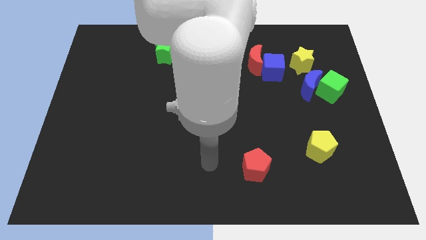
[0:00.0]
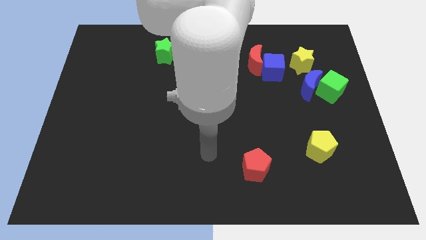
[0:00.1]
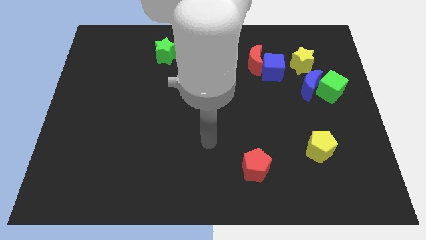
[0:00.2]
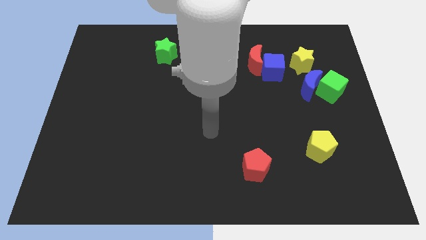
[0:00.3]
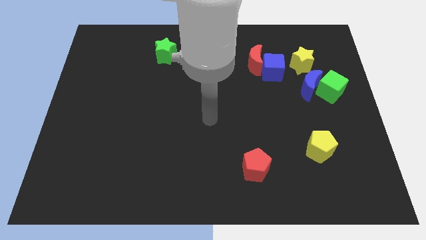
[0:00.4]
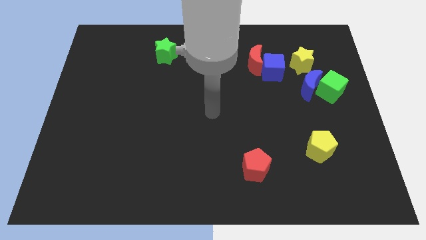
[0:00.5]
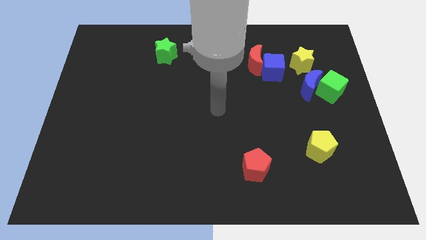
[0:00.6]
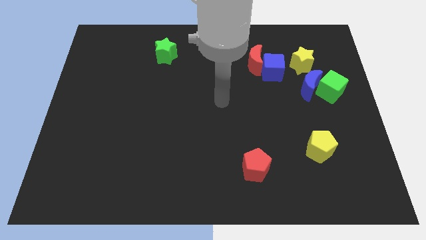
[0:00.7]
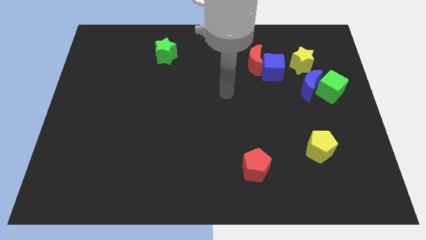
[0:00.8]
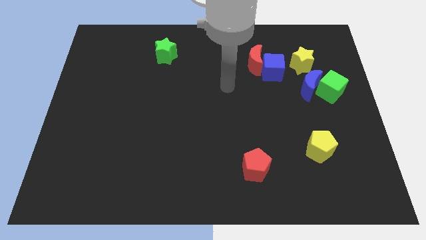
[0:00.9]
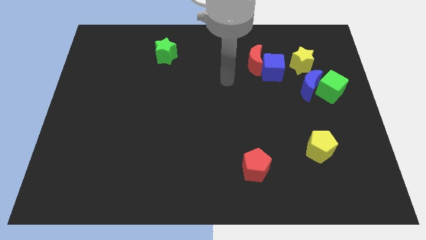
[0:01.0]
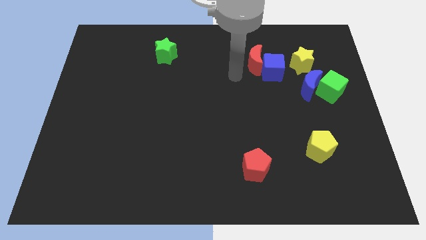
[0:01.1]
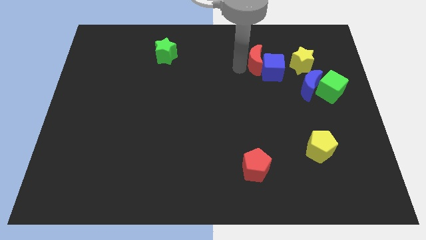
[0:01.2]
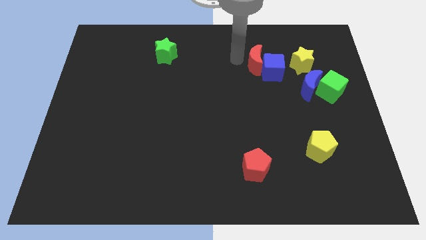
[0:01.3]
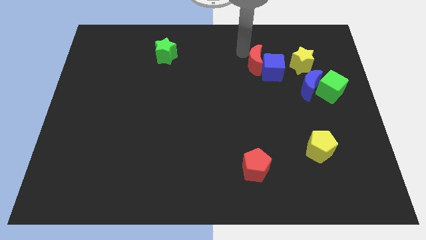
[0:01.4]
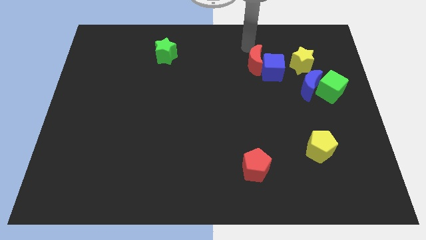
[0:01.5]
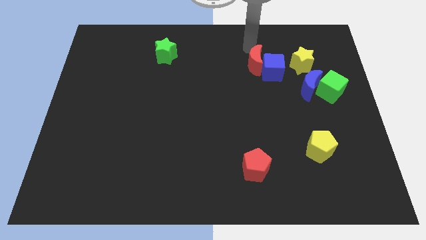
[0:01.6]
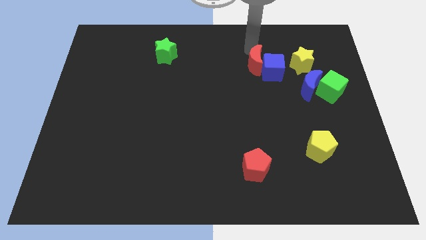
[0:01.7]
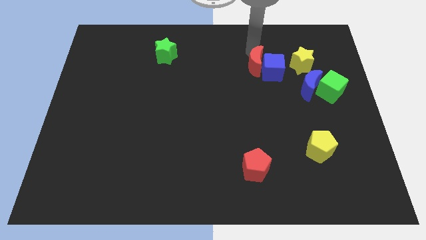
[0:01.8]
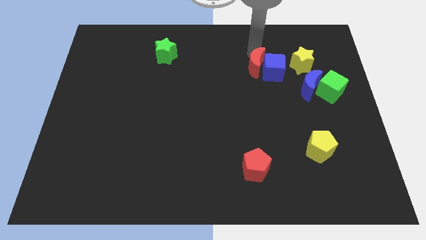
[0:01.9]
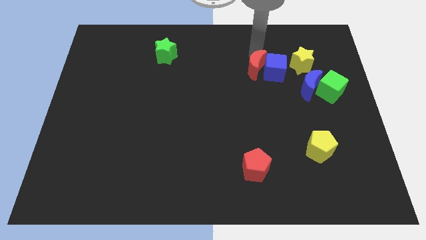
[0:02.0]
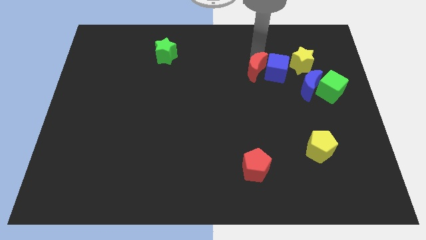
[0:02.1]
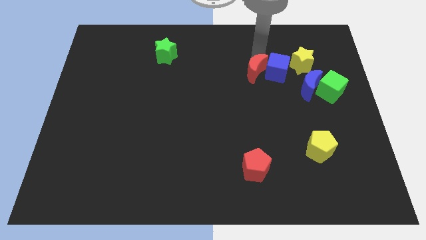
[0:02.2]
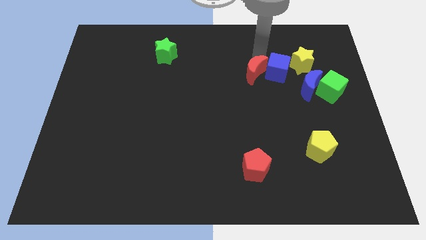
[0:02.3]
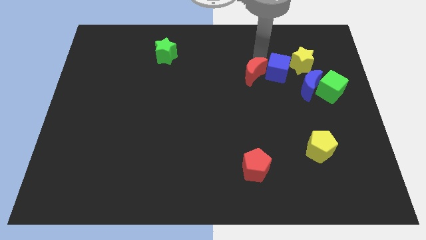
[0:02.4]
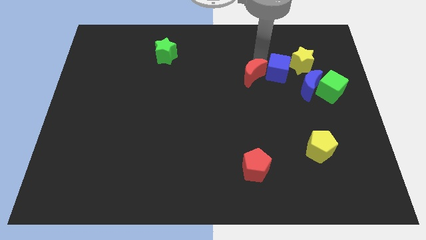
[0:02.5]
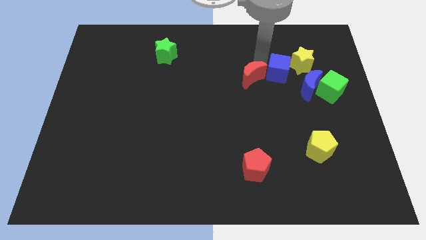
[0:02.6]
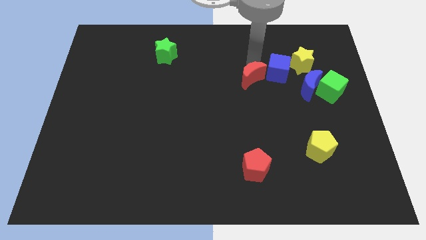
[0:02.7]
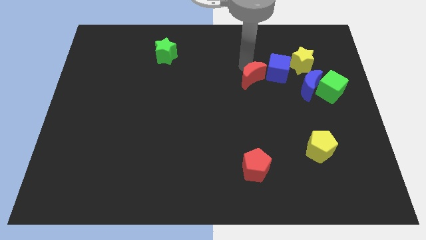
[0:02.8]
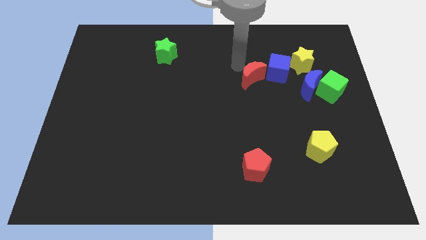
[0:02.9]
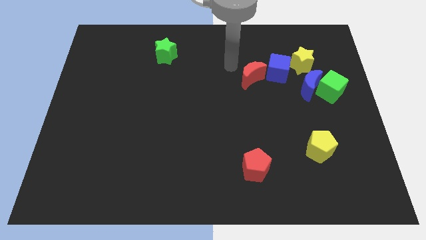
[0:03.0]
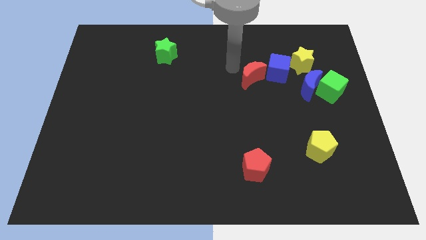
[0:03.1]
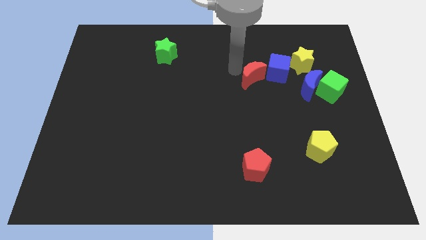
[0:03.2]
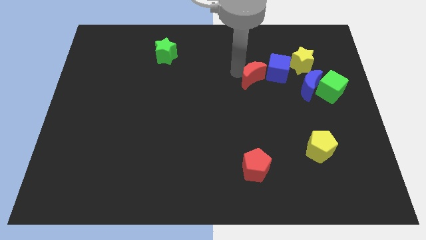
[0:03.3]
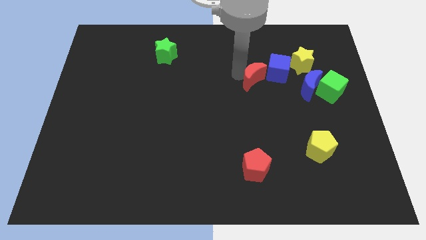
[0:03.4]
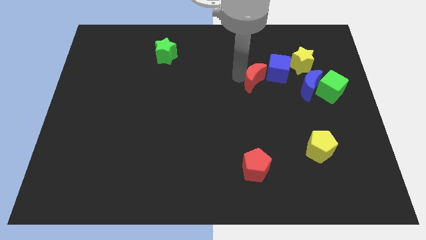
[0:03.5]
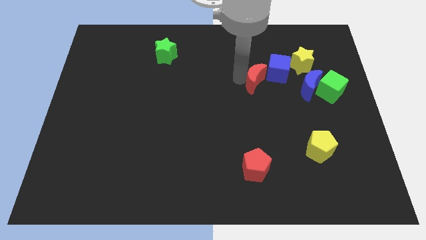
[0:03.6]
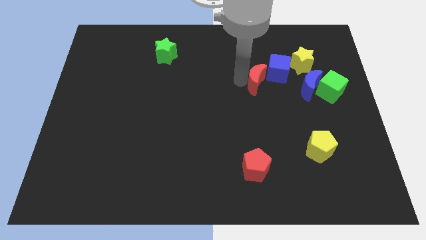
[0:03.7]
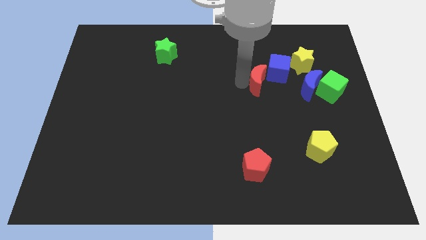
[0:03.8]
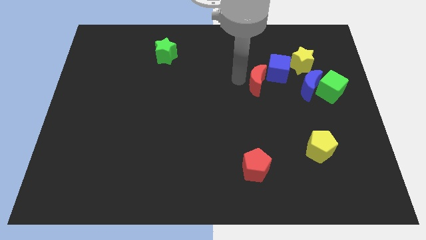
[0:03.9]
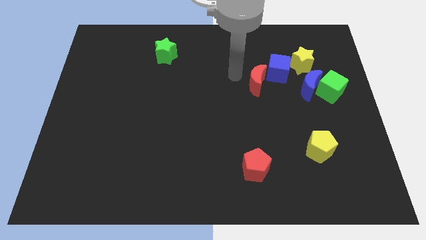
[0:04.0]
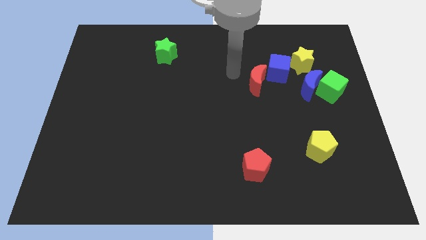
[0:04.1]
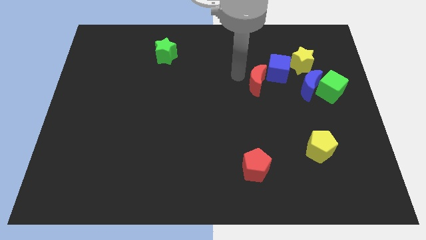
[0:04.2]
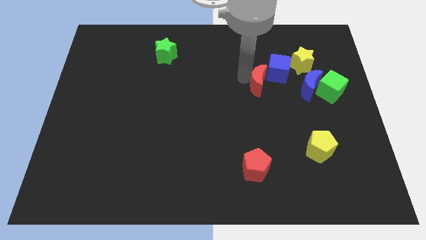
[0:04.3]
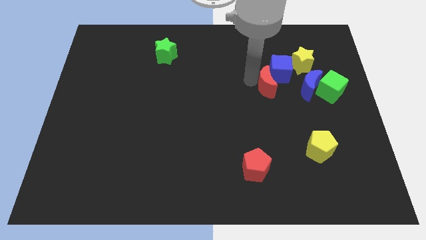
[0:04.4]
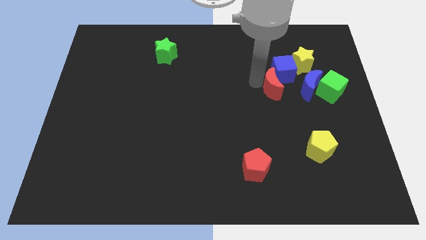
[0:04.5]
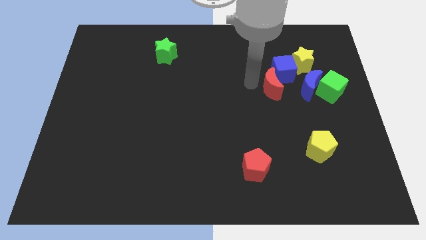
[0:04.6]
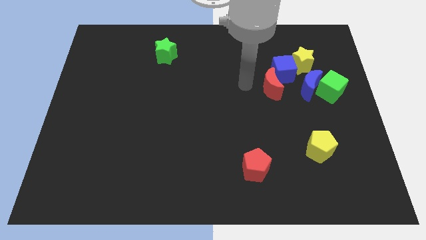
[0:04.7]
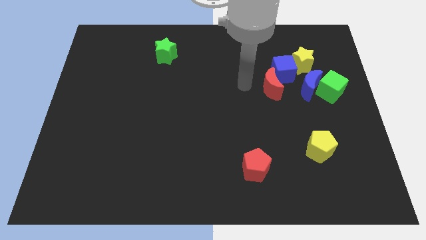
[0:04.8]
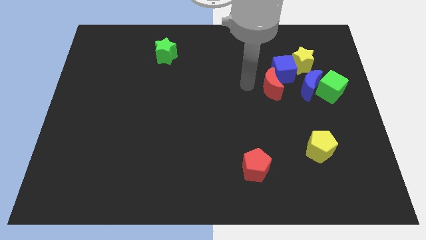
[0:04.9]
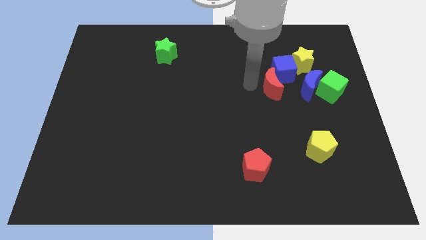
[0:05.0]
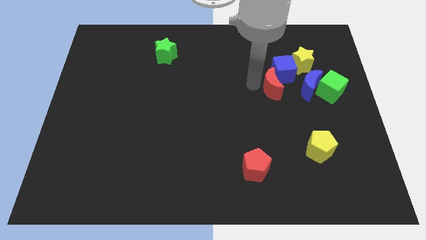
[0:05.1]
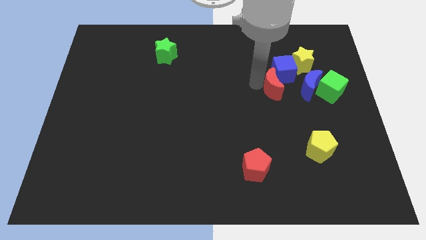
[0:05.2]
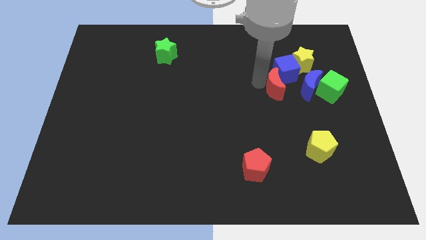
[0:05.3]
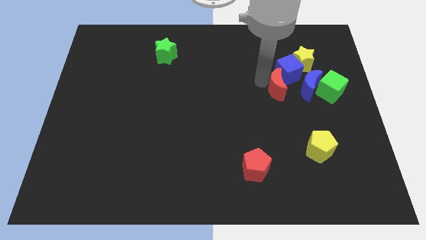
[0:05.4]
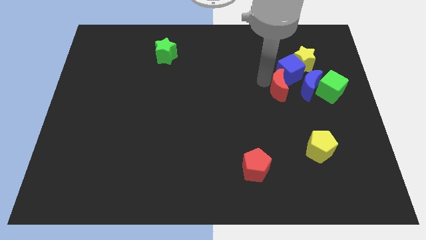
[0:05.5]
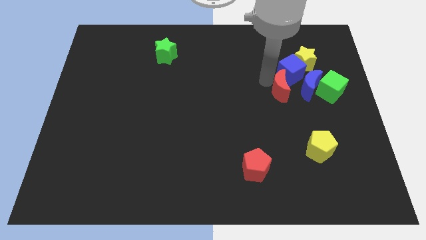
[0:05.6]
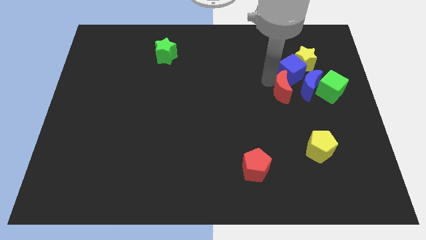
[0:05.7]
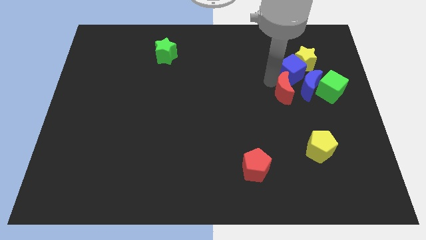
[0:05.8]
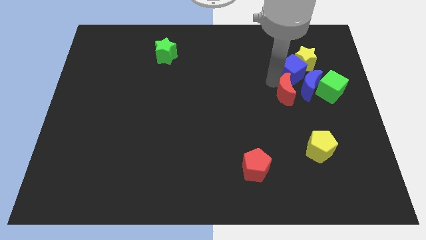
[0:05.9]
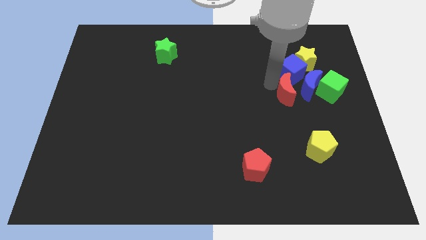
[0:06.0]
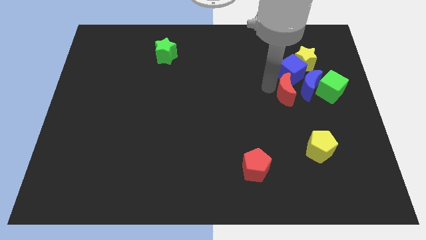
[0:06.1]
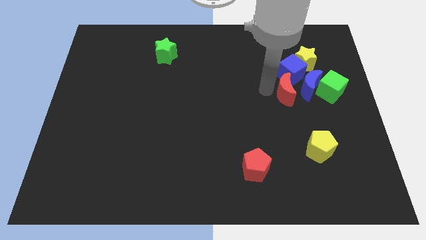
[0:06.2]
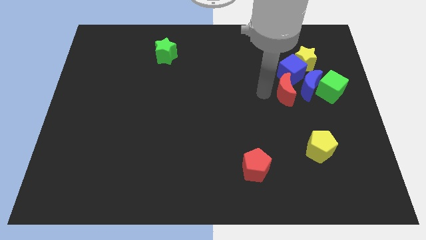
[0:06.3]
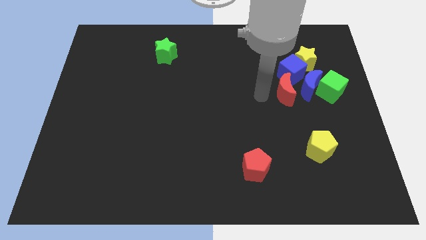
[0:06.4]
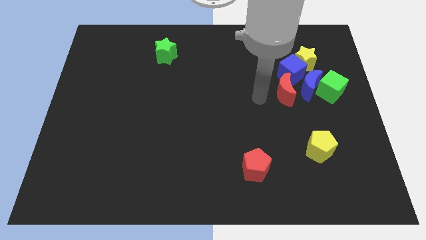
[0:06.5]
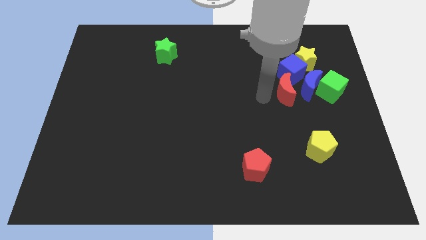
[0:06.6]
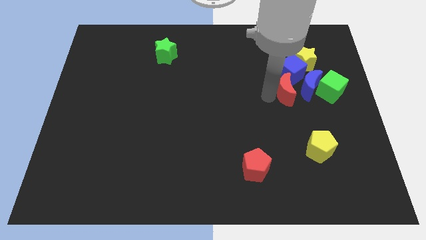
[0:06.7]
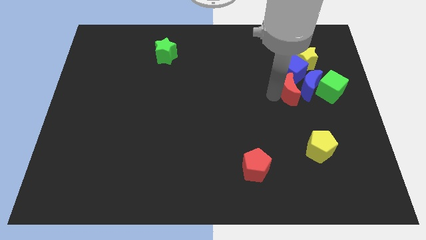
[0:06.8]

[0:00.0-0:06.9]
move the red moon to the blue moon
